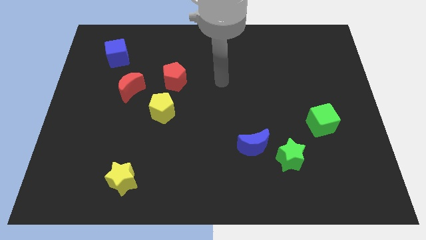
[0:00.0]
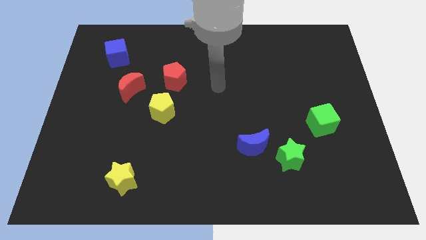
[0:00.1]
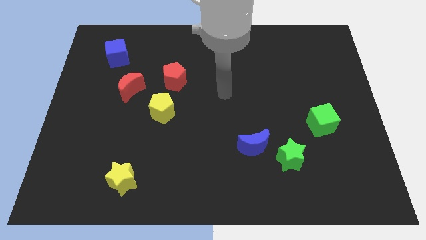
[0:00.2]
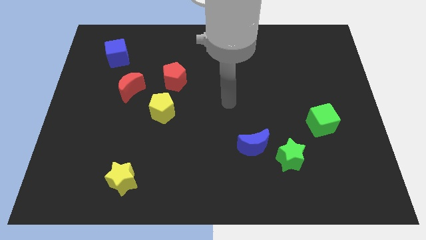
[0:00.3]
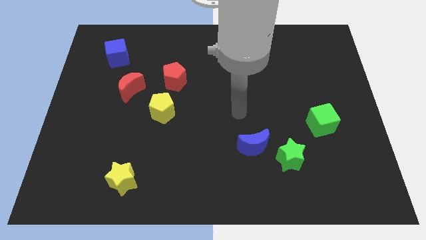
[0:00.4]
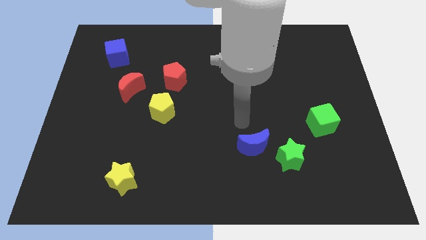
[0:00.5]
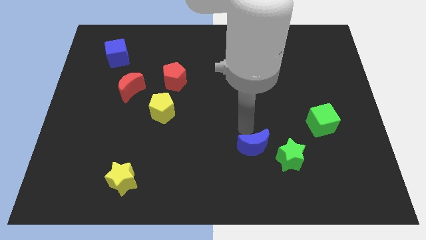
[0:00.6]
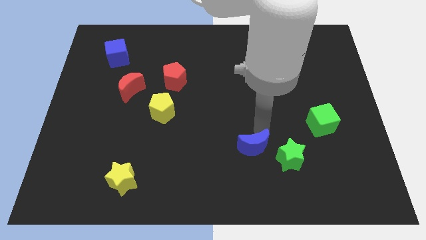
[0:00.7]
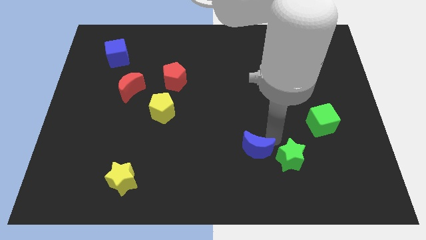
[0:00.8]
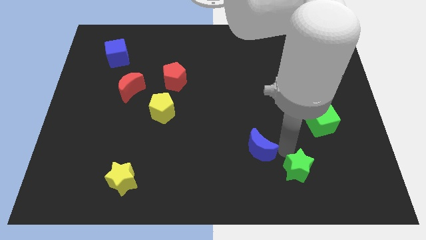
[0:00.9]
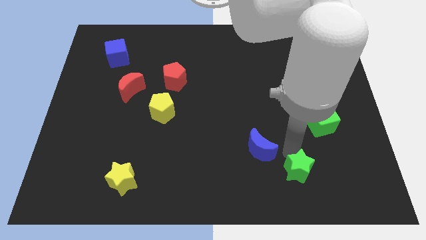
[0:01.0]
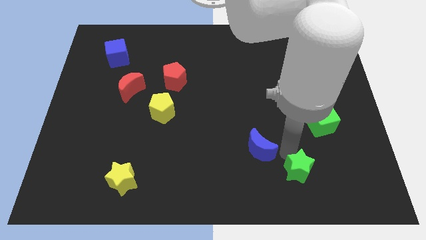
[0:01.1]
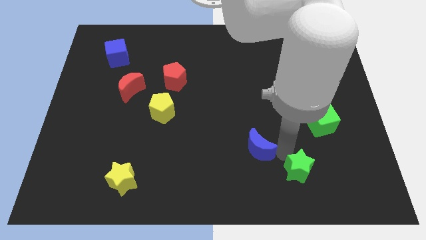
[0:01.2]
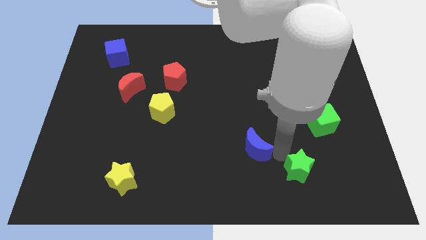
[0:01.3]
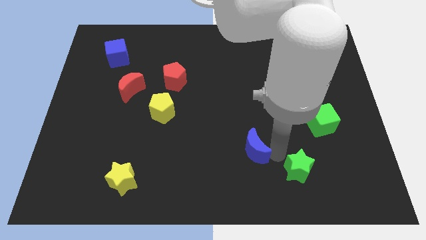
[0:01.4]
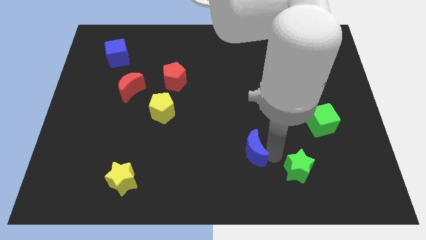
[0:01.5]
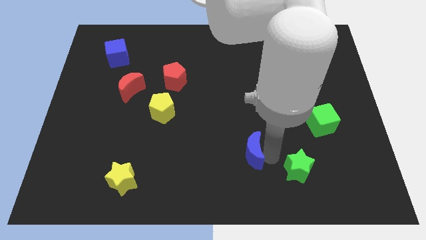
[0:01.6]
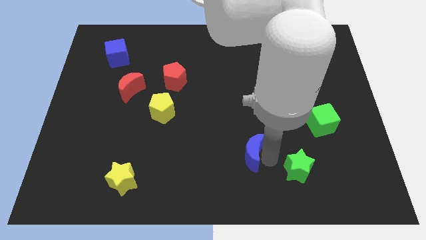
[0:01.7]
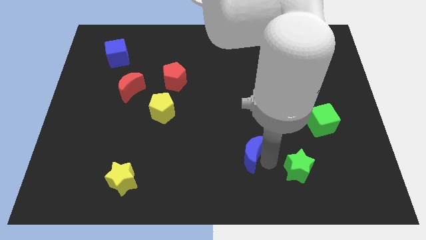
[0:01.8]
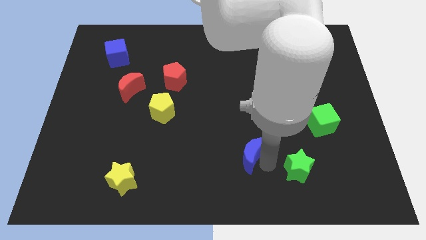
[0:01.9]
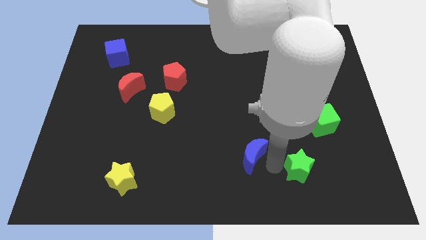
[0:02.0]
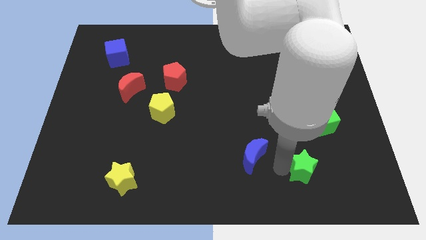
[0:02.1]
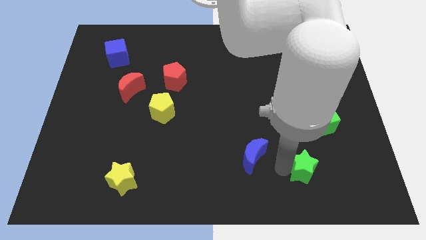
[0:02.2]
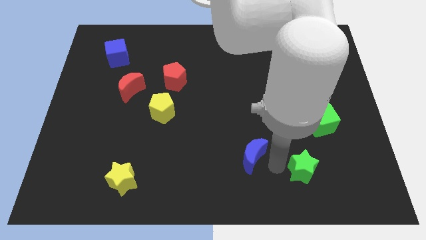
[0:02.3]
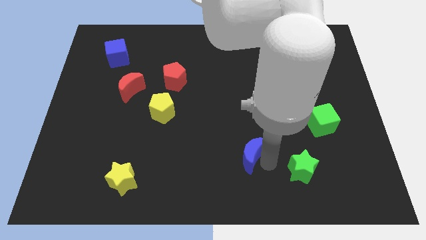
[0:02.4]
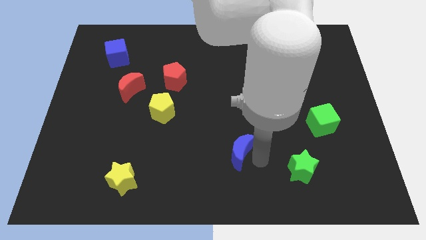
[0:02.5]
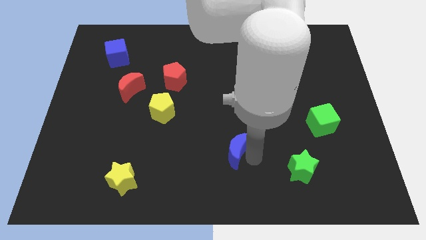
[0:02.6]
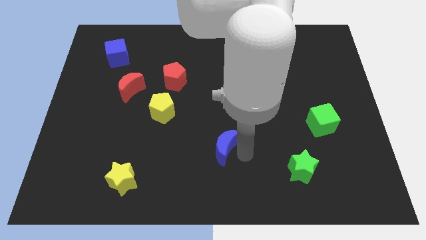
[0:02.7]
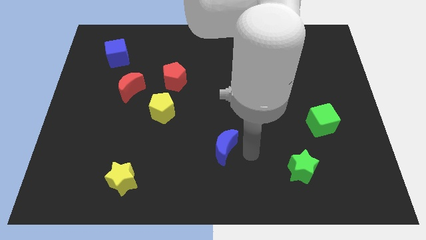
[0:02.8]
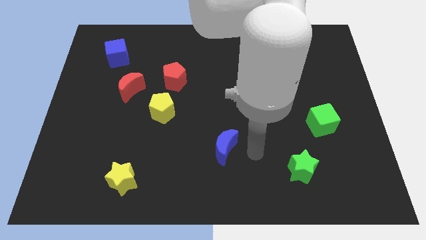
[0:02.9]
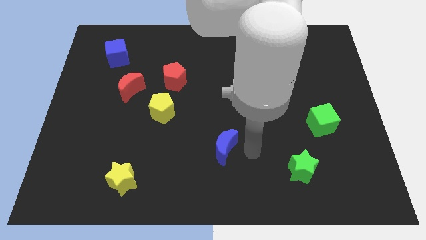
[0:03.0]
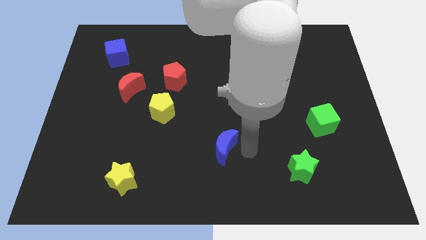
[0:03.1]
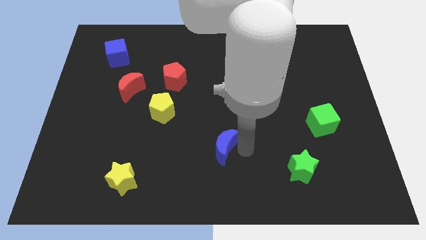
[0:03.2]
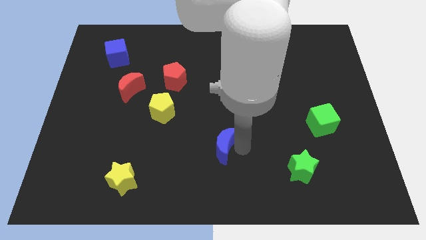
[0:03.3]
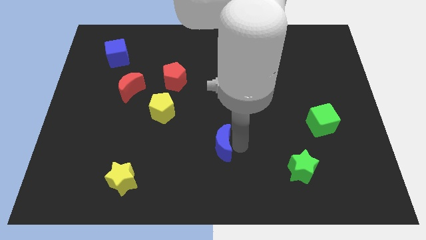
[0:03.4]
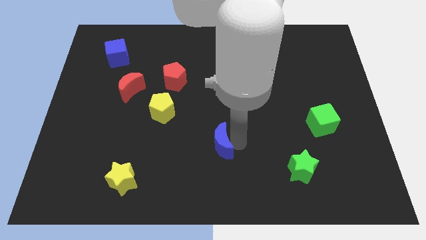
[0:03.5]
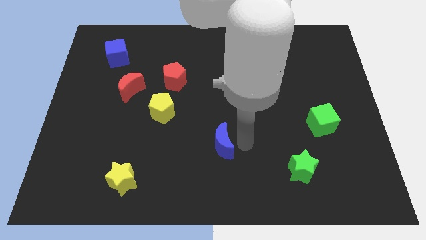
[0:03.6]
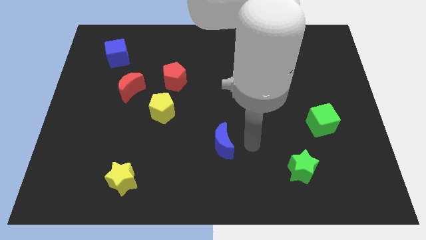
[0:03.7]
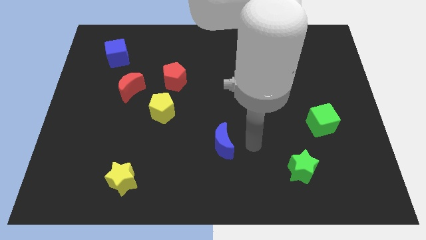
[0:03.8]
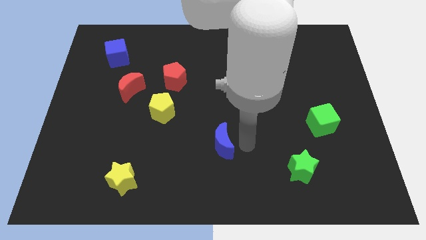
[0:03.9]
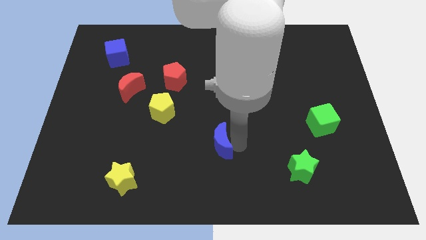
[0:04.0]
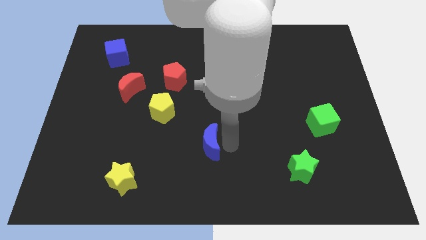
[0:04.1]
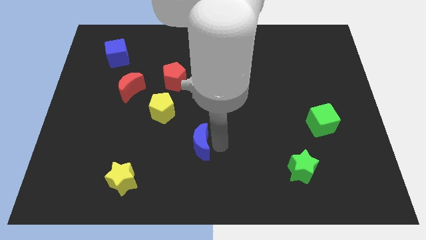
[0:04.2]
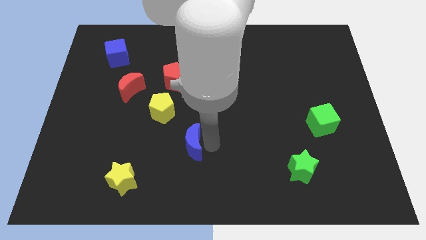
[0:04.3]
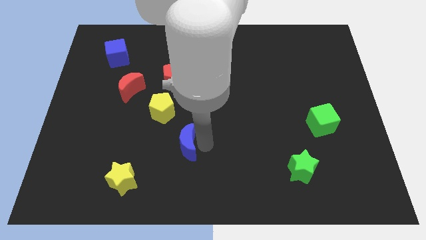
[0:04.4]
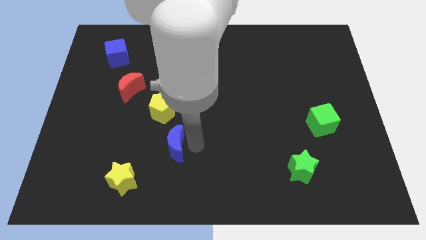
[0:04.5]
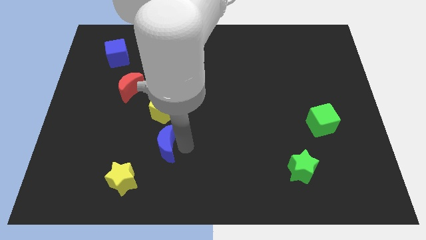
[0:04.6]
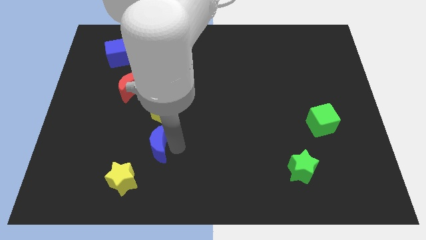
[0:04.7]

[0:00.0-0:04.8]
slide the blue moon left

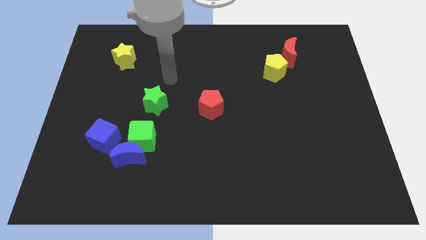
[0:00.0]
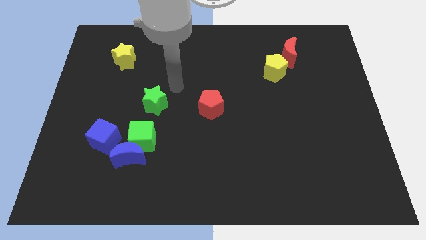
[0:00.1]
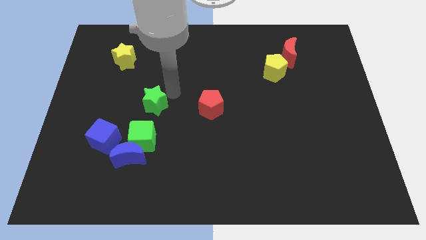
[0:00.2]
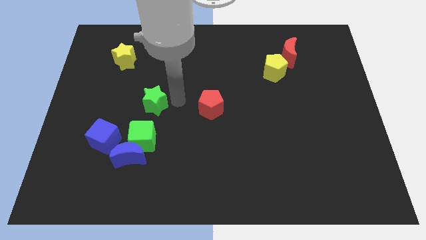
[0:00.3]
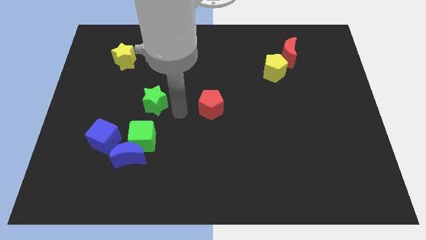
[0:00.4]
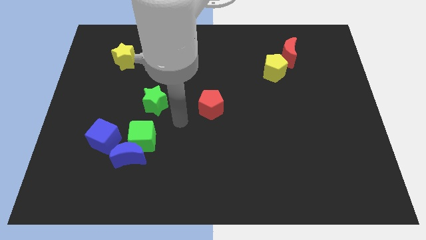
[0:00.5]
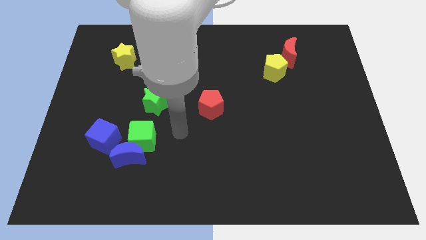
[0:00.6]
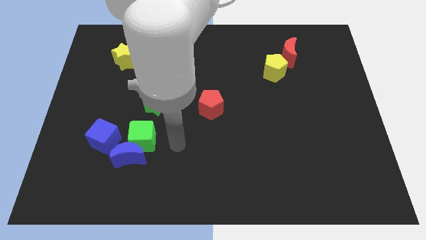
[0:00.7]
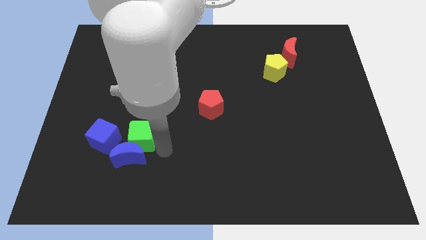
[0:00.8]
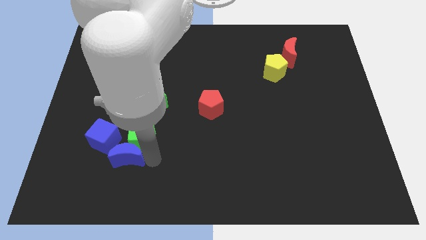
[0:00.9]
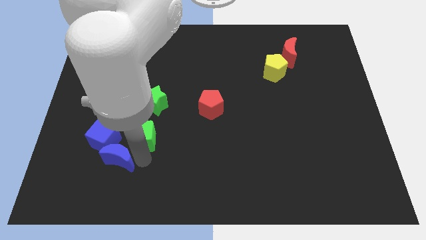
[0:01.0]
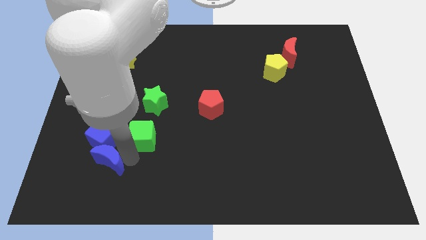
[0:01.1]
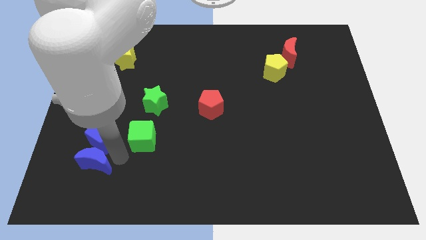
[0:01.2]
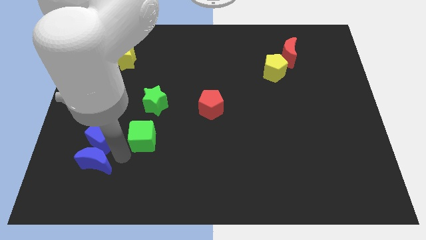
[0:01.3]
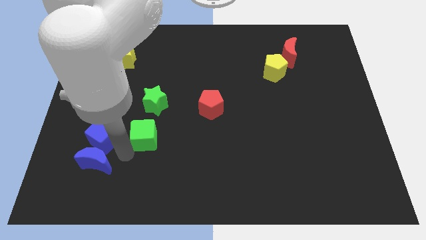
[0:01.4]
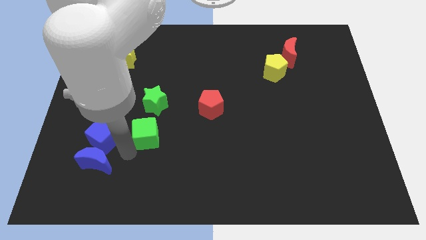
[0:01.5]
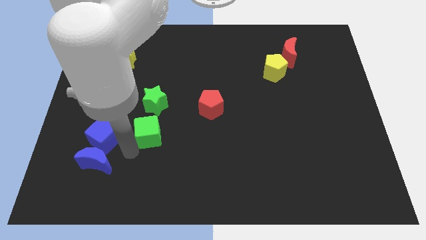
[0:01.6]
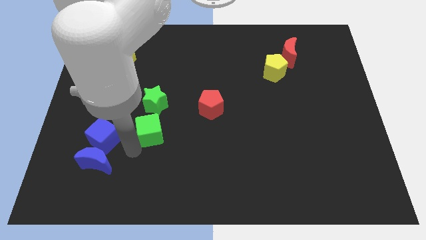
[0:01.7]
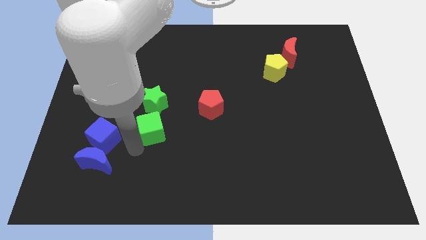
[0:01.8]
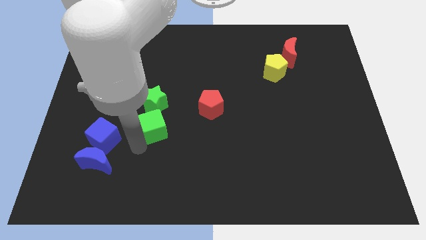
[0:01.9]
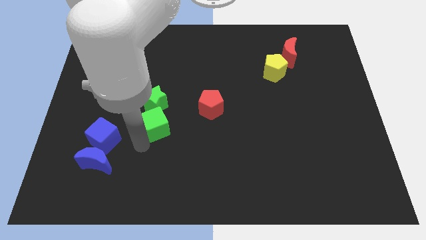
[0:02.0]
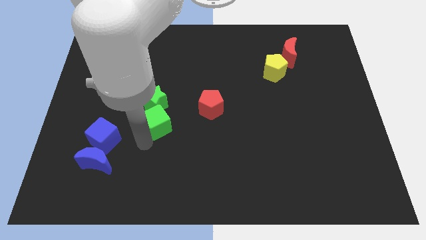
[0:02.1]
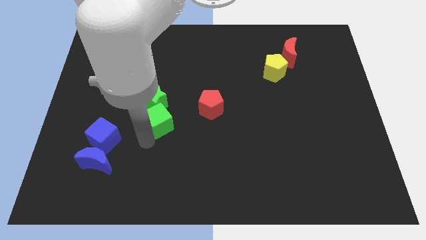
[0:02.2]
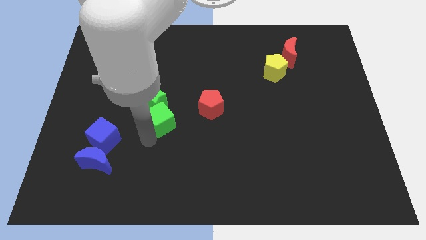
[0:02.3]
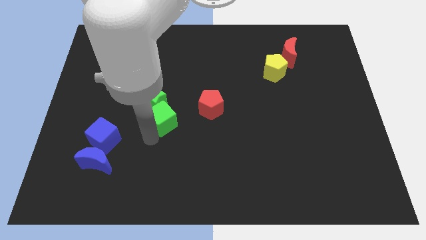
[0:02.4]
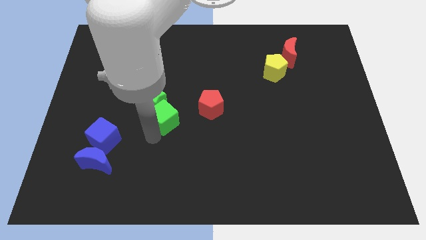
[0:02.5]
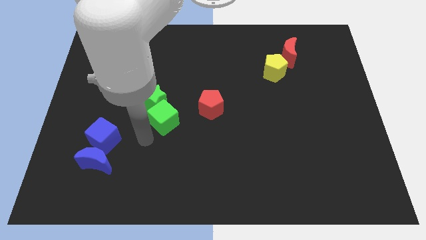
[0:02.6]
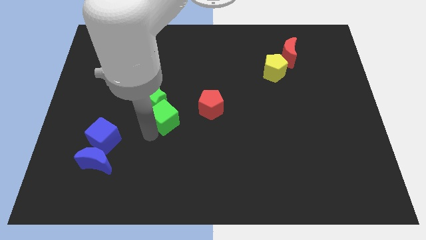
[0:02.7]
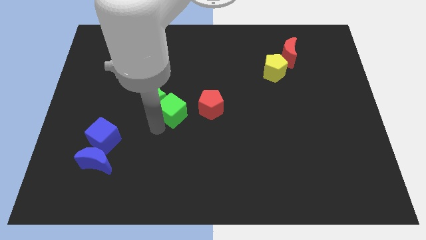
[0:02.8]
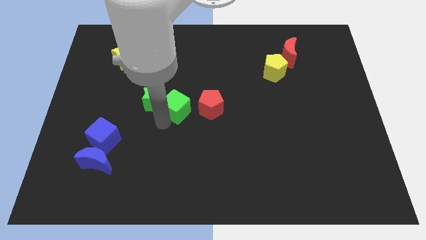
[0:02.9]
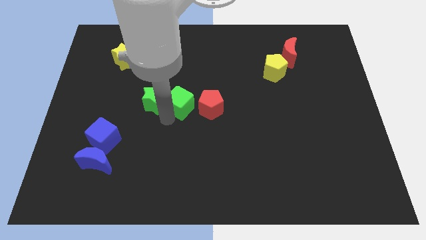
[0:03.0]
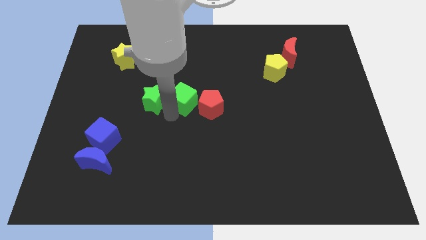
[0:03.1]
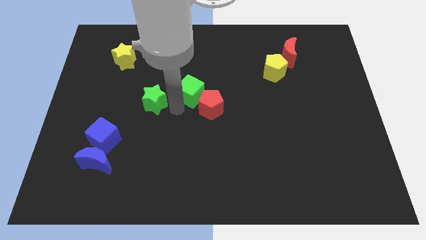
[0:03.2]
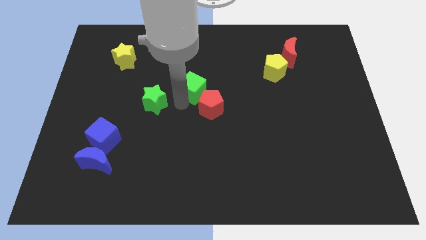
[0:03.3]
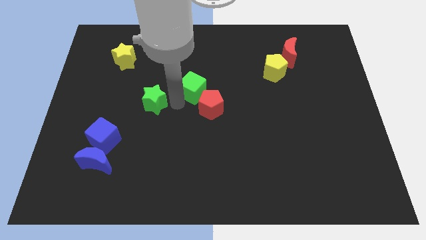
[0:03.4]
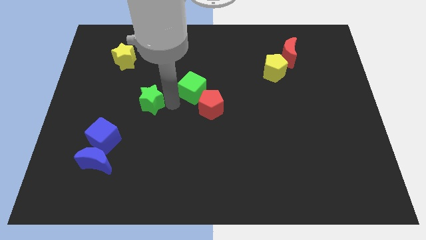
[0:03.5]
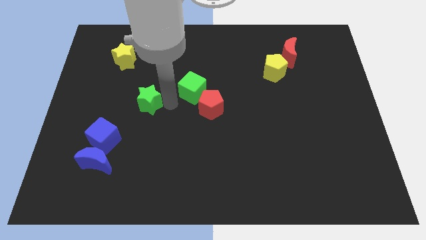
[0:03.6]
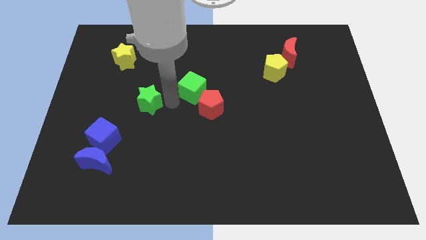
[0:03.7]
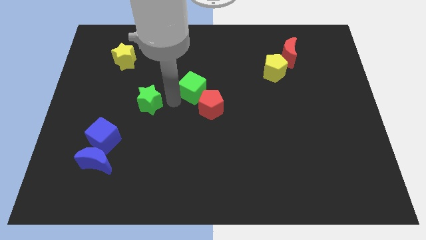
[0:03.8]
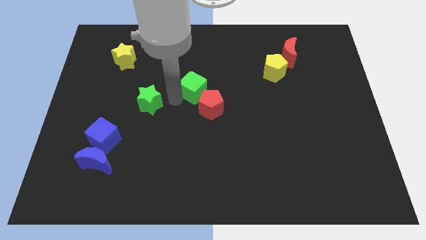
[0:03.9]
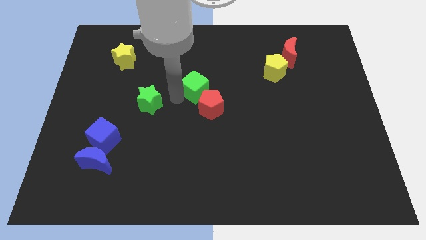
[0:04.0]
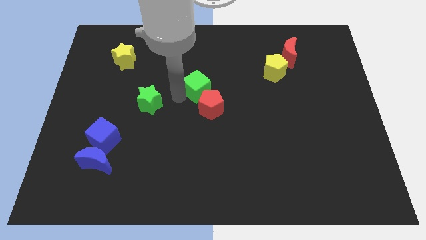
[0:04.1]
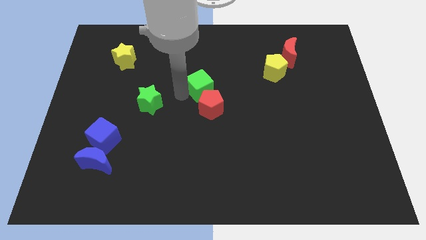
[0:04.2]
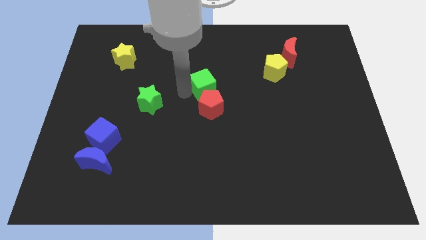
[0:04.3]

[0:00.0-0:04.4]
push the green cube diagonally up and right
